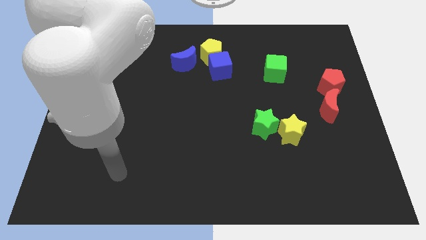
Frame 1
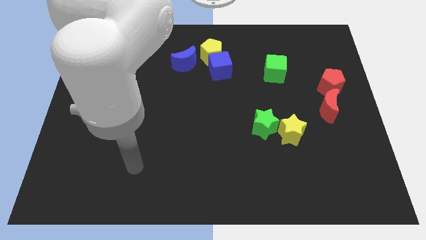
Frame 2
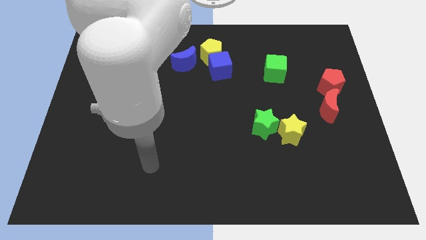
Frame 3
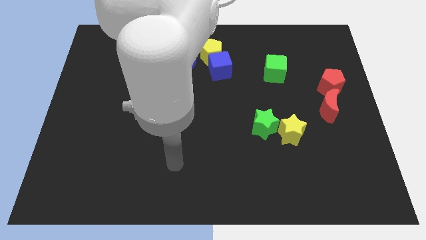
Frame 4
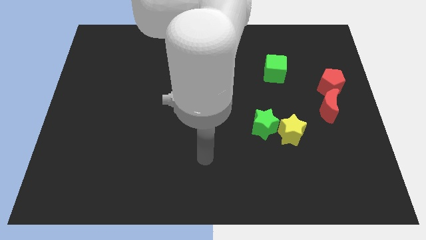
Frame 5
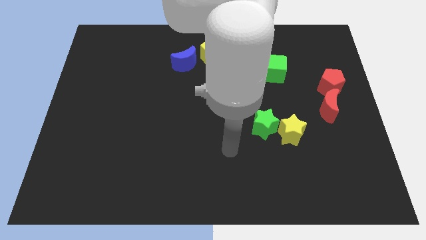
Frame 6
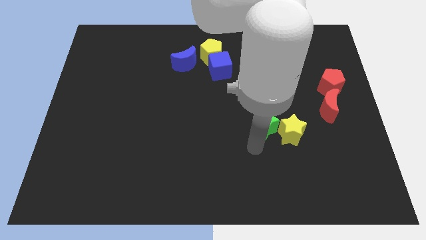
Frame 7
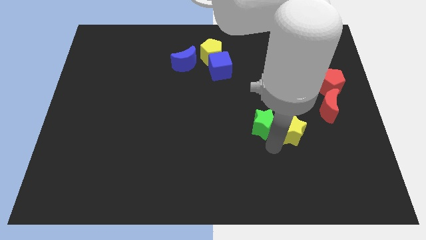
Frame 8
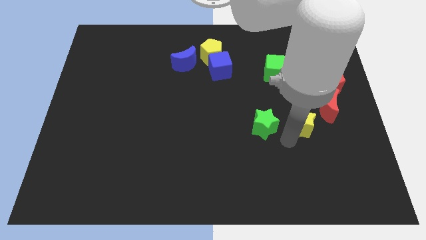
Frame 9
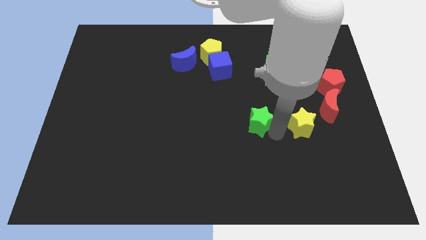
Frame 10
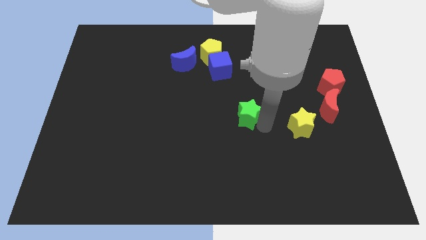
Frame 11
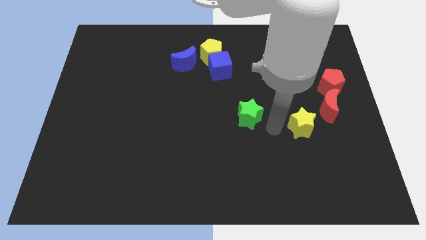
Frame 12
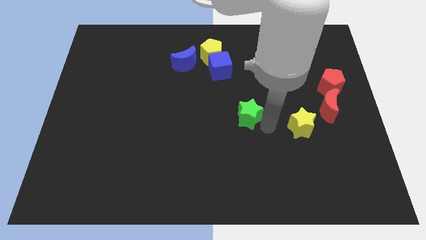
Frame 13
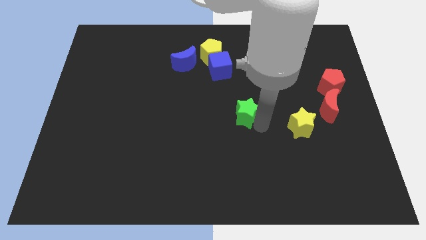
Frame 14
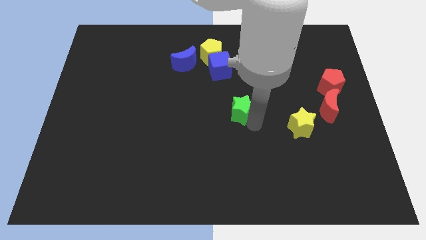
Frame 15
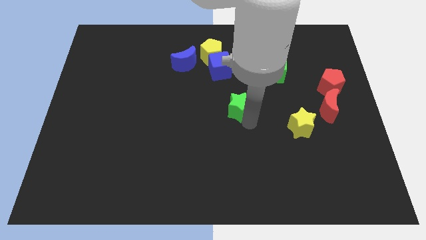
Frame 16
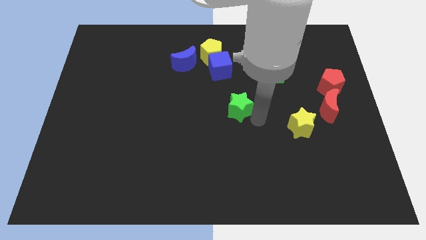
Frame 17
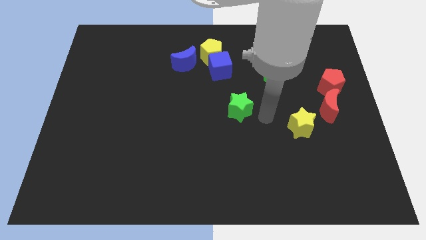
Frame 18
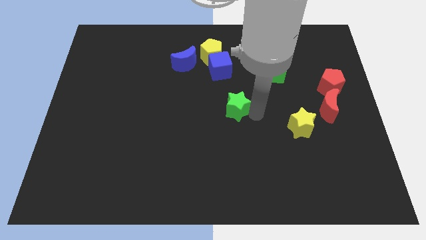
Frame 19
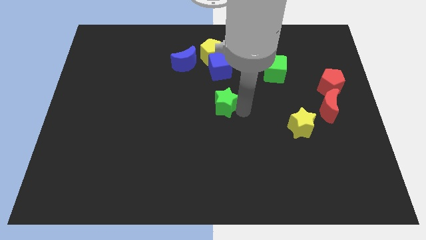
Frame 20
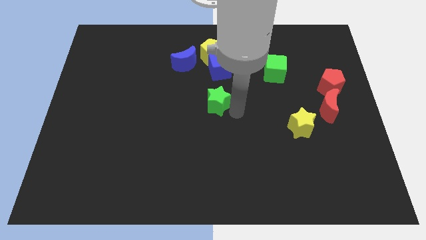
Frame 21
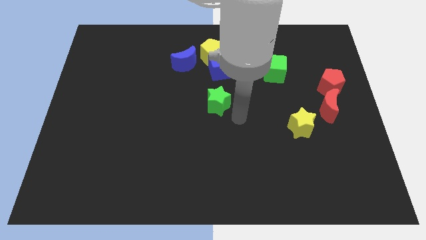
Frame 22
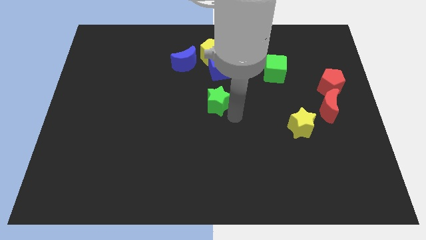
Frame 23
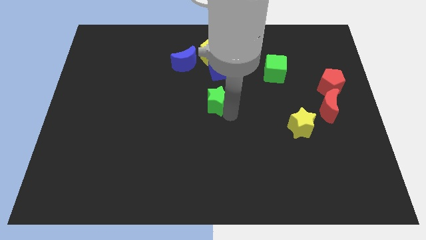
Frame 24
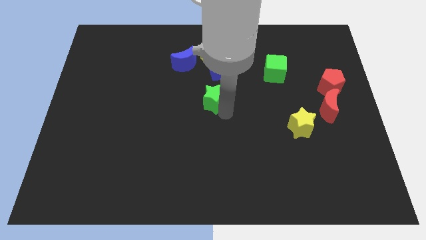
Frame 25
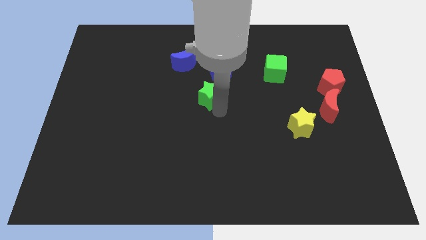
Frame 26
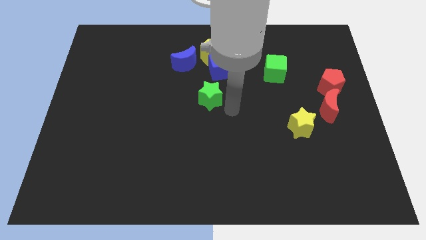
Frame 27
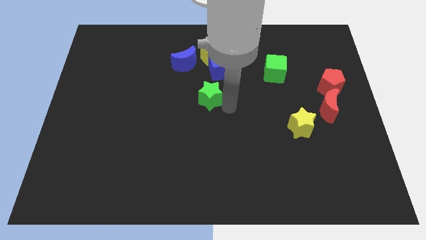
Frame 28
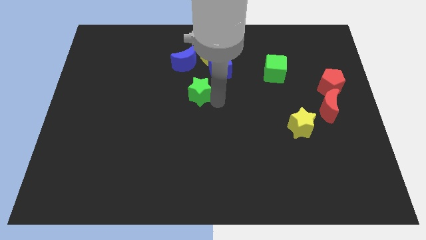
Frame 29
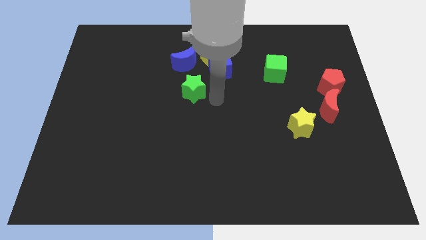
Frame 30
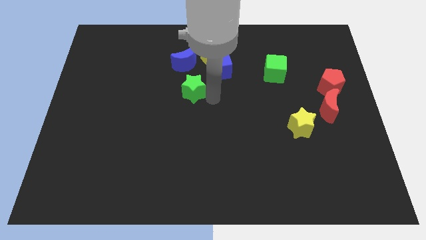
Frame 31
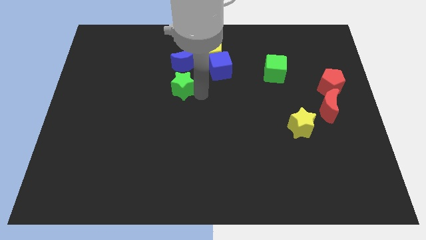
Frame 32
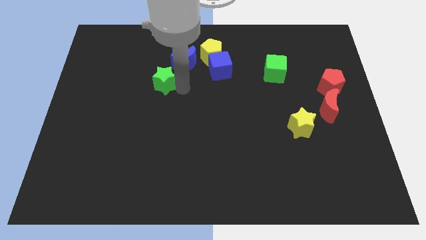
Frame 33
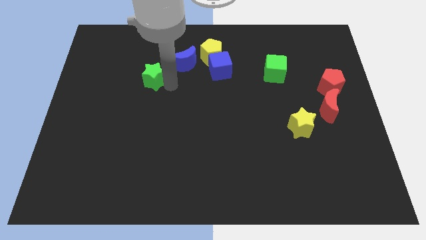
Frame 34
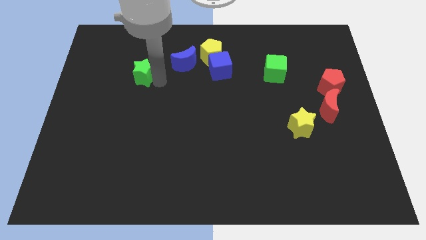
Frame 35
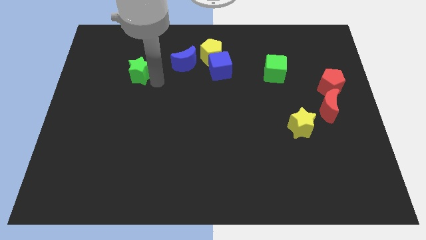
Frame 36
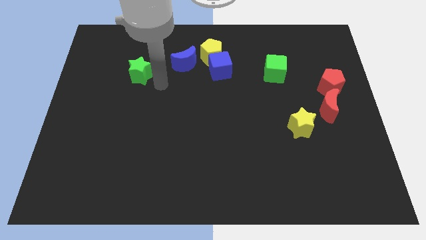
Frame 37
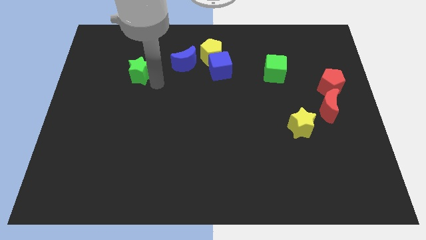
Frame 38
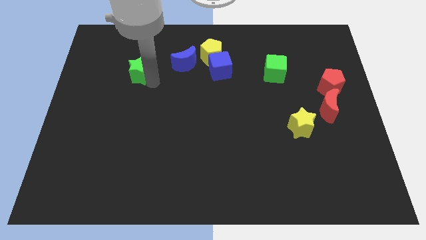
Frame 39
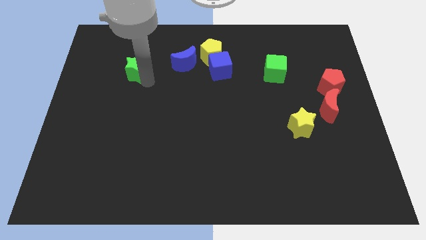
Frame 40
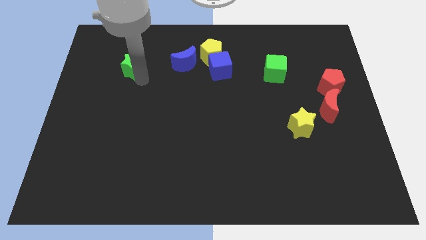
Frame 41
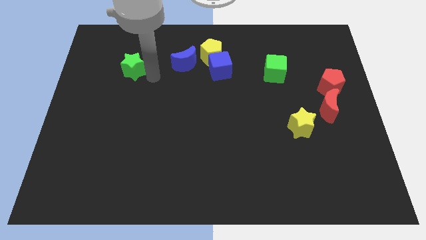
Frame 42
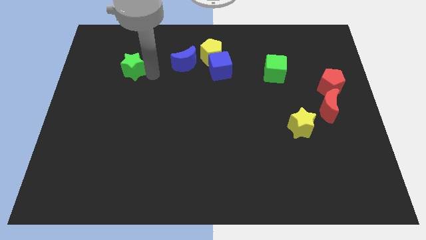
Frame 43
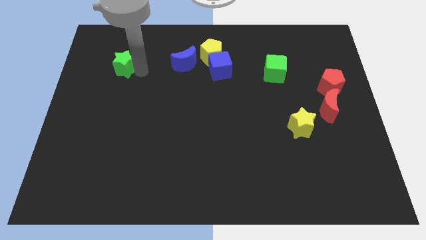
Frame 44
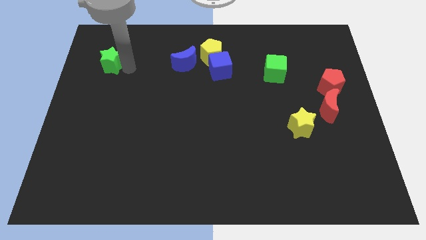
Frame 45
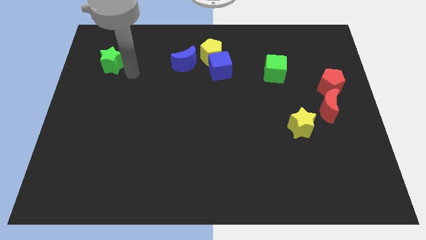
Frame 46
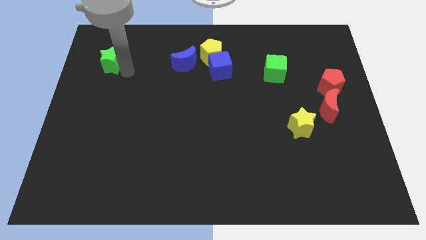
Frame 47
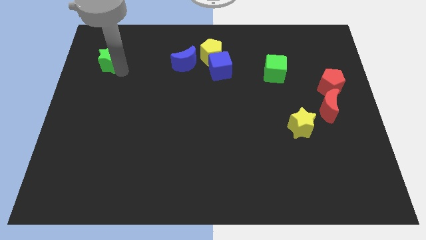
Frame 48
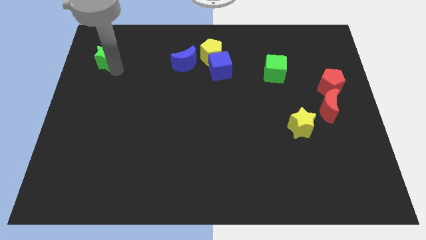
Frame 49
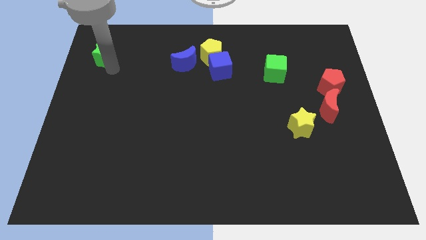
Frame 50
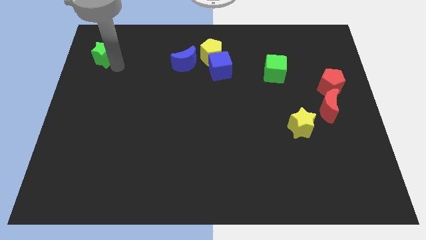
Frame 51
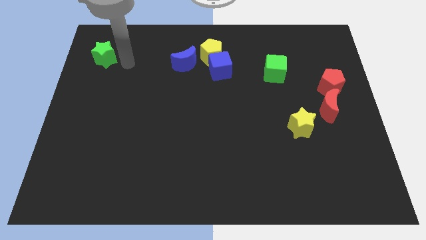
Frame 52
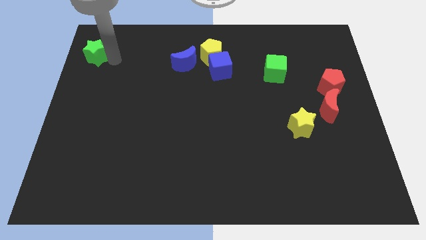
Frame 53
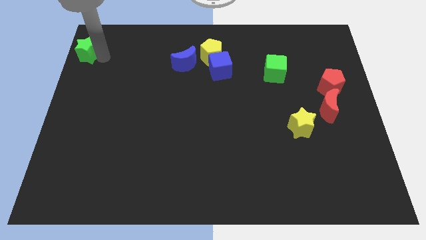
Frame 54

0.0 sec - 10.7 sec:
push the green star to the top left of the board

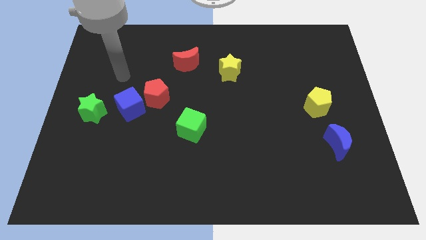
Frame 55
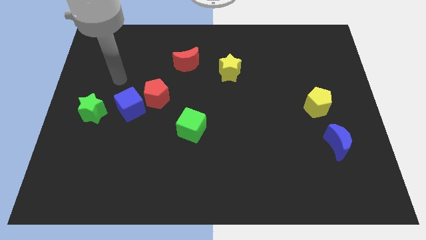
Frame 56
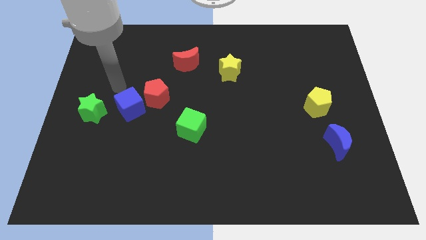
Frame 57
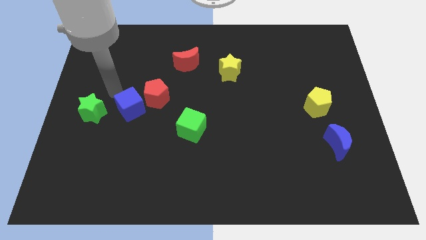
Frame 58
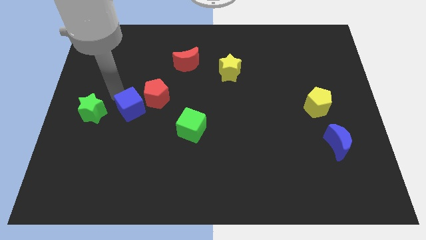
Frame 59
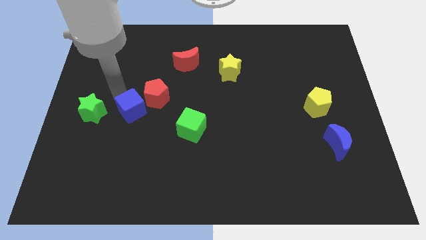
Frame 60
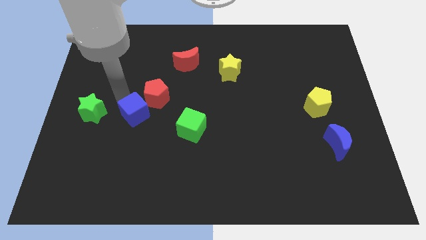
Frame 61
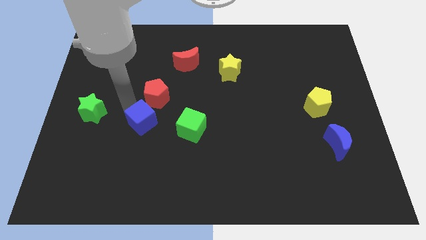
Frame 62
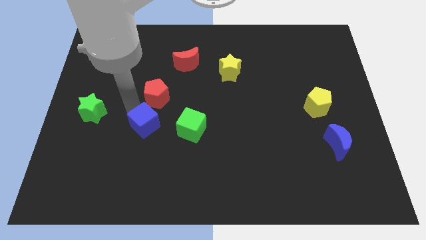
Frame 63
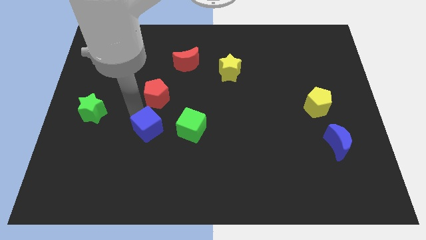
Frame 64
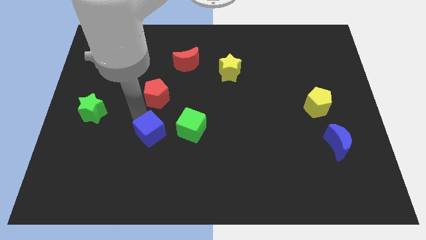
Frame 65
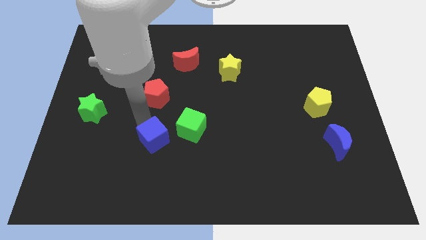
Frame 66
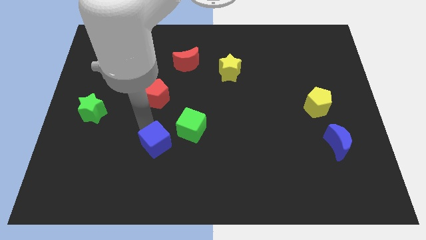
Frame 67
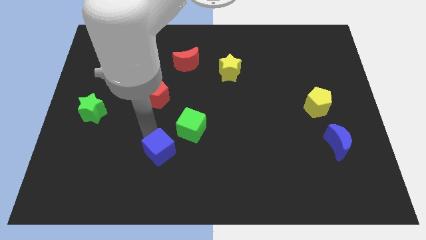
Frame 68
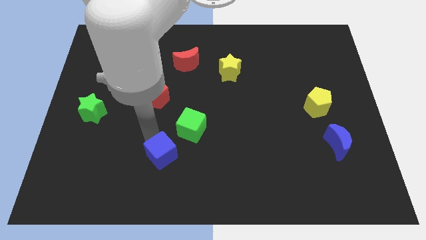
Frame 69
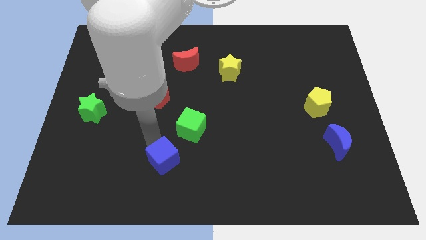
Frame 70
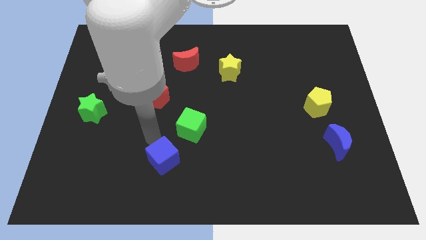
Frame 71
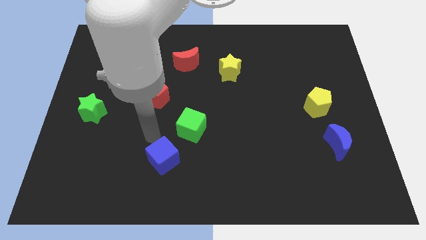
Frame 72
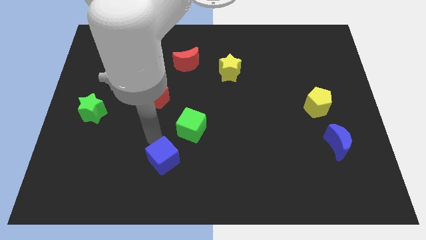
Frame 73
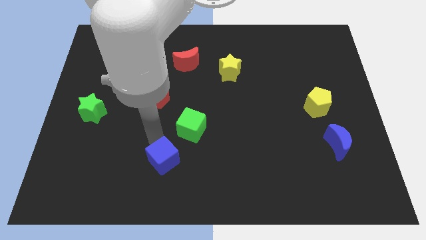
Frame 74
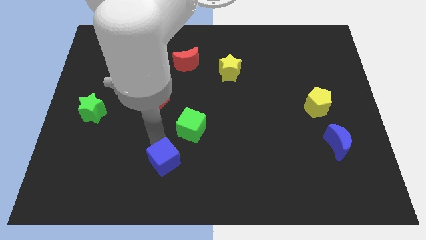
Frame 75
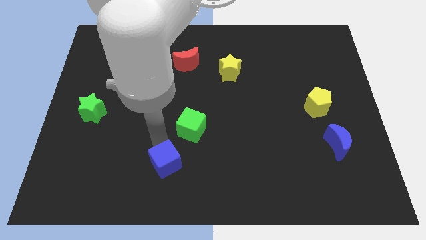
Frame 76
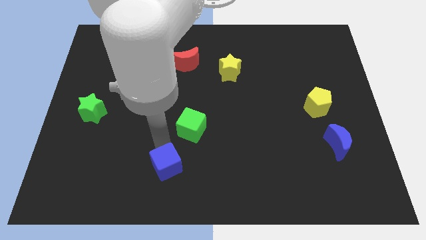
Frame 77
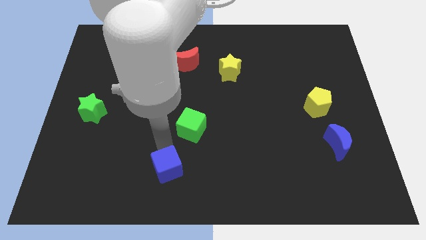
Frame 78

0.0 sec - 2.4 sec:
move the blue cube to the bottom
